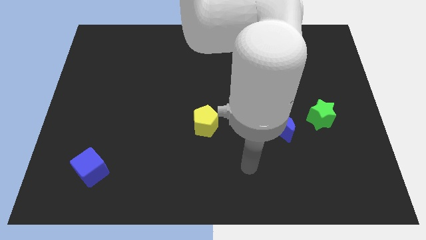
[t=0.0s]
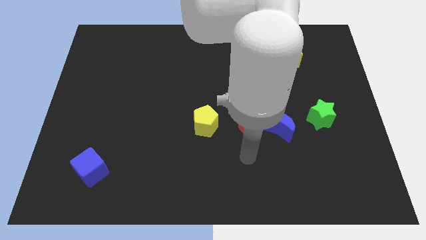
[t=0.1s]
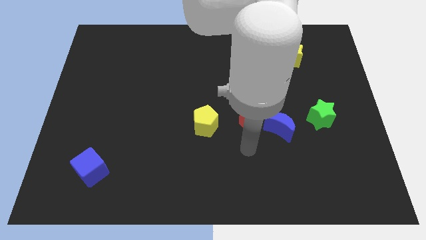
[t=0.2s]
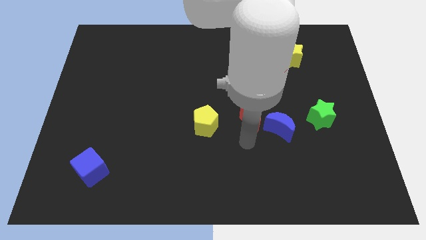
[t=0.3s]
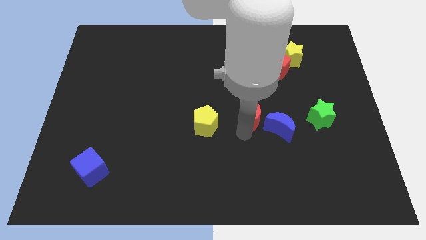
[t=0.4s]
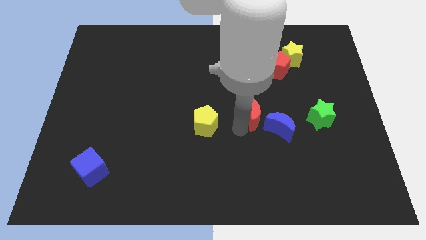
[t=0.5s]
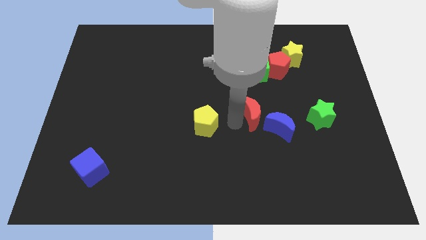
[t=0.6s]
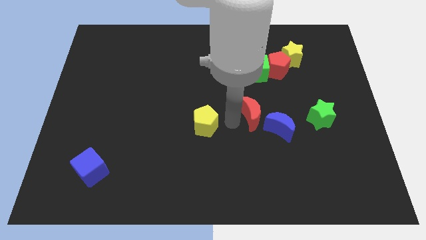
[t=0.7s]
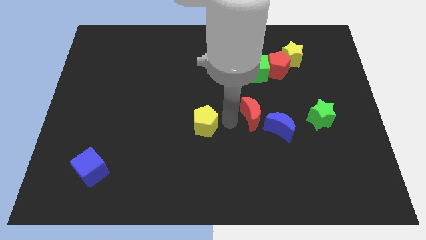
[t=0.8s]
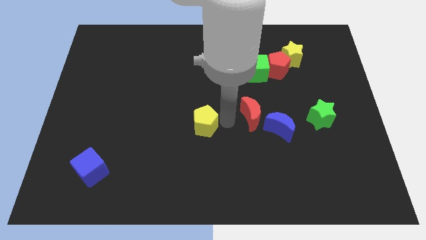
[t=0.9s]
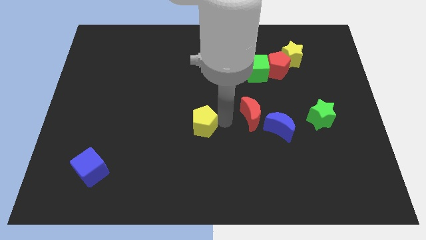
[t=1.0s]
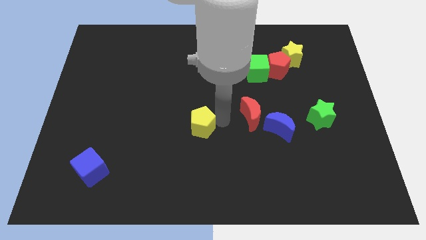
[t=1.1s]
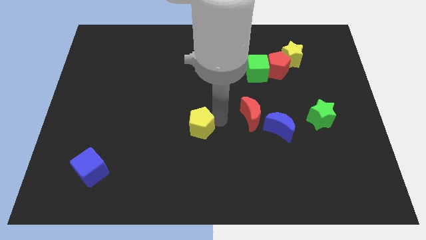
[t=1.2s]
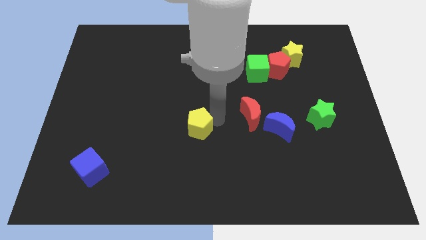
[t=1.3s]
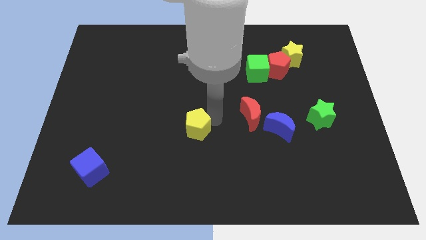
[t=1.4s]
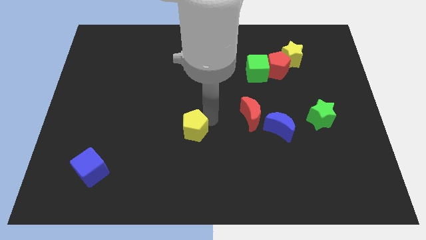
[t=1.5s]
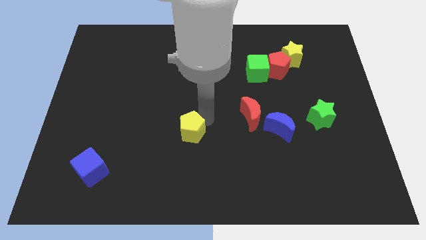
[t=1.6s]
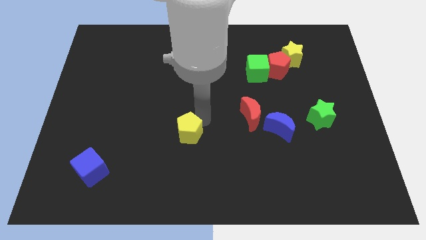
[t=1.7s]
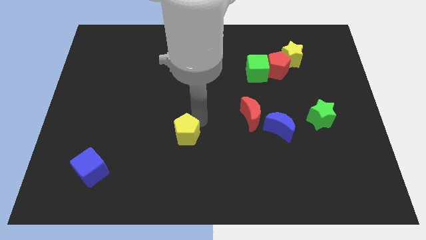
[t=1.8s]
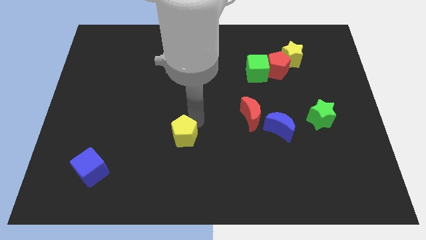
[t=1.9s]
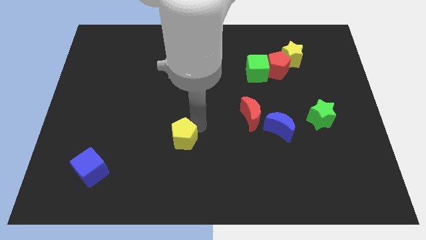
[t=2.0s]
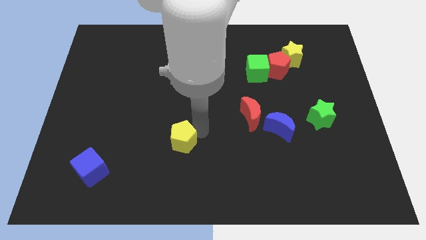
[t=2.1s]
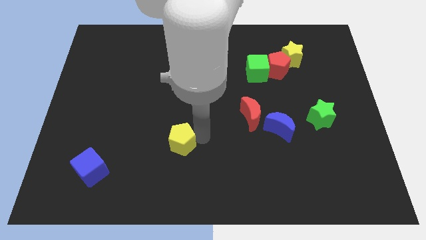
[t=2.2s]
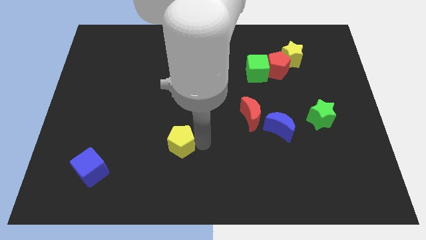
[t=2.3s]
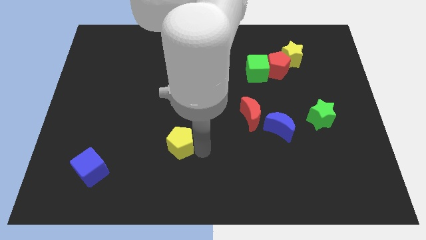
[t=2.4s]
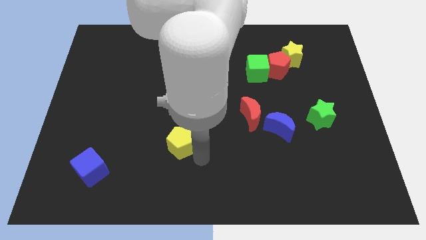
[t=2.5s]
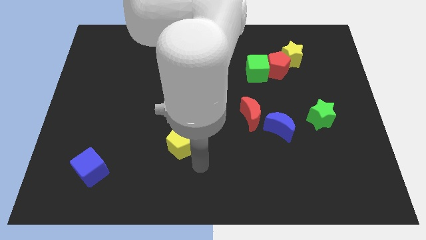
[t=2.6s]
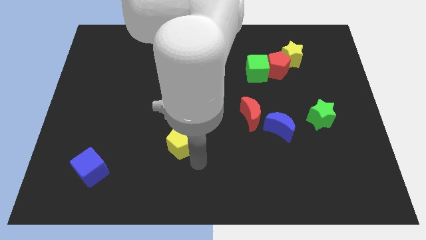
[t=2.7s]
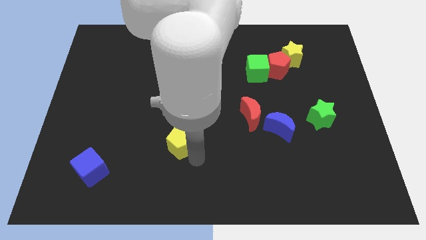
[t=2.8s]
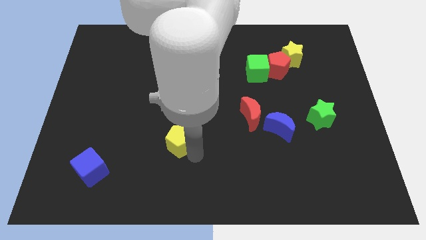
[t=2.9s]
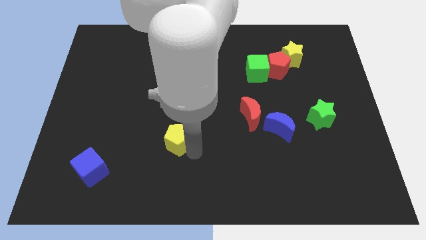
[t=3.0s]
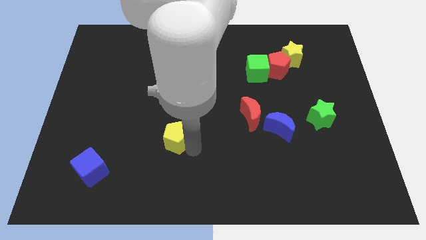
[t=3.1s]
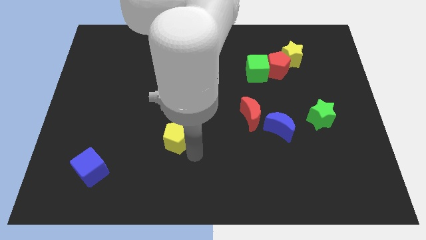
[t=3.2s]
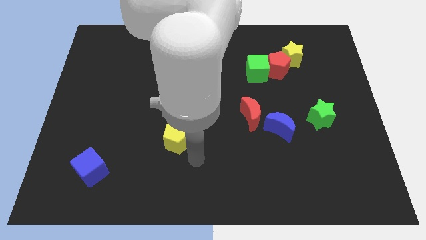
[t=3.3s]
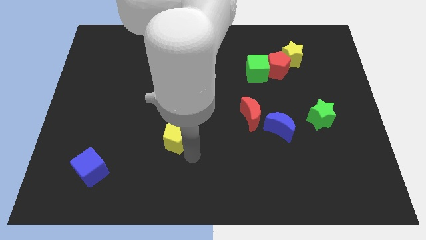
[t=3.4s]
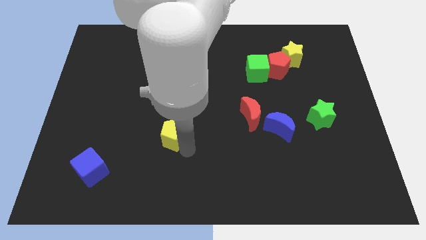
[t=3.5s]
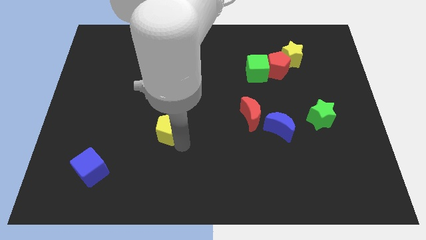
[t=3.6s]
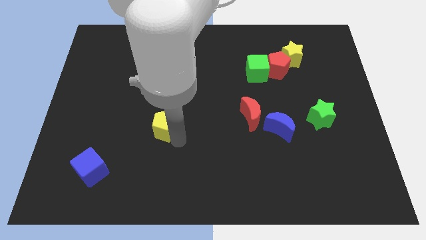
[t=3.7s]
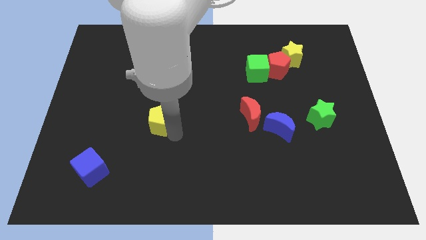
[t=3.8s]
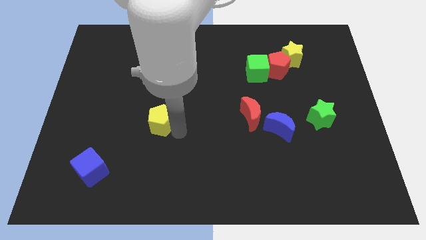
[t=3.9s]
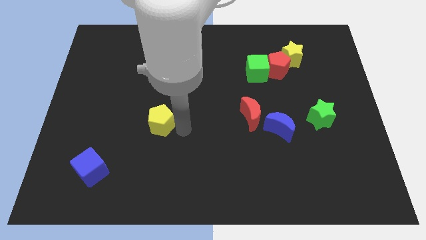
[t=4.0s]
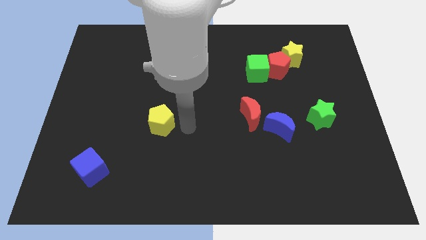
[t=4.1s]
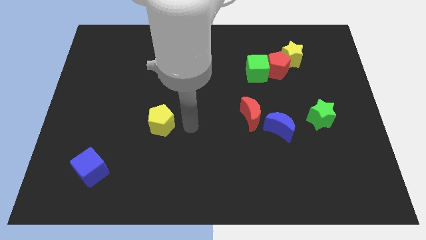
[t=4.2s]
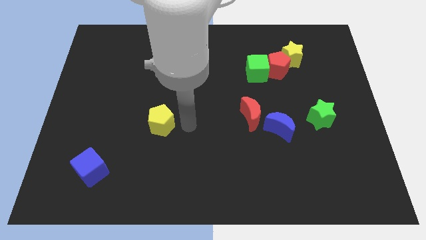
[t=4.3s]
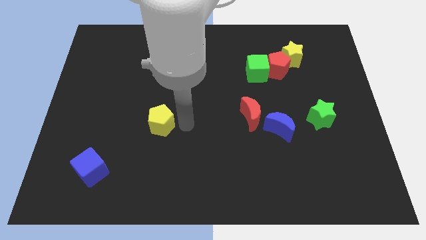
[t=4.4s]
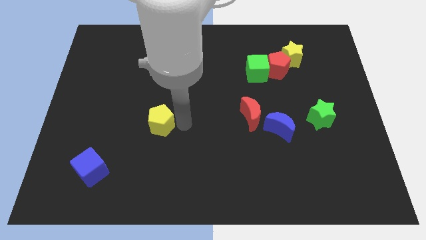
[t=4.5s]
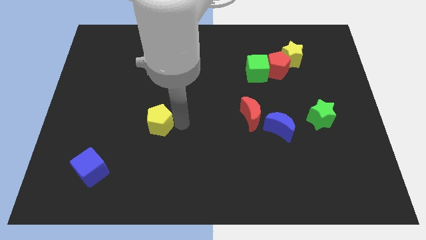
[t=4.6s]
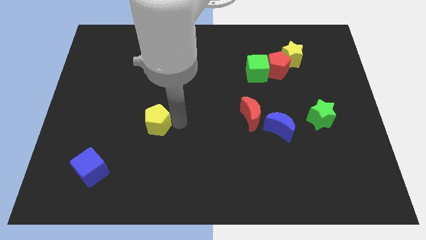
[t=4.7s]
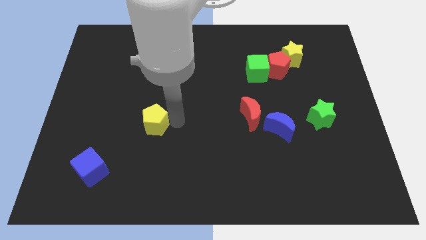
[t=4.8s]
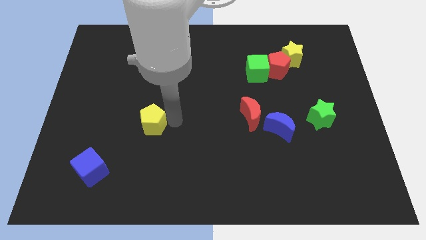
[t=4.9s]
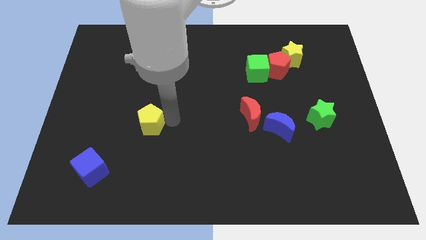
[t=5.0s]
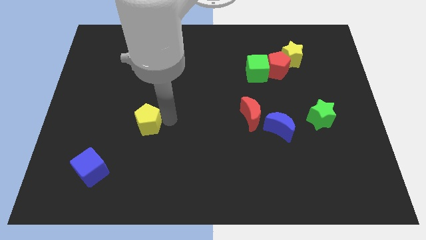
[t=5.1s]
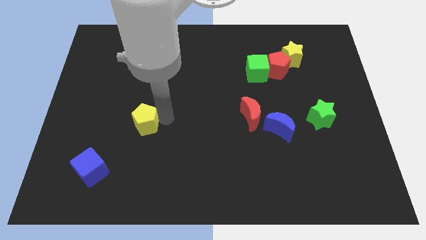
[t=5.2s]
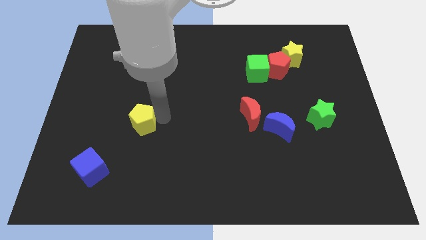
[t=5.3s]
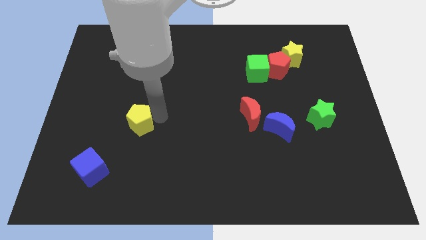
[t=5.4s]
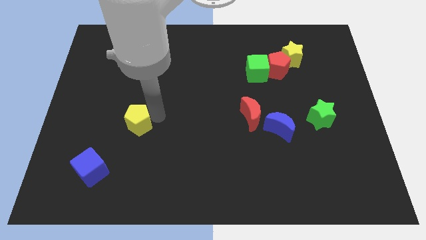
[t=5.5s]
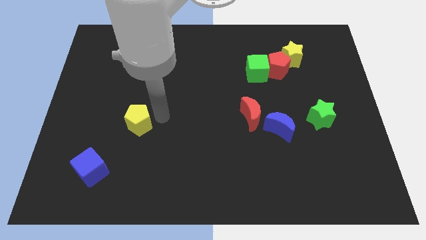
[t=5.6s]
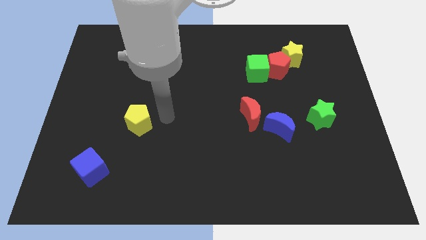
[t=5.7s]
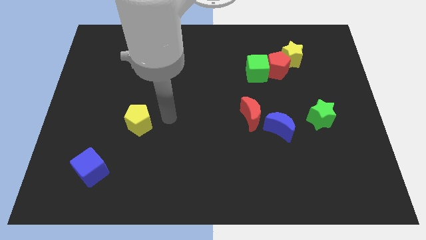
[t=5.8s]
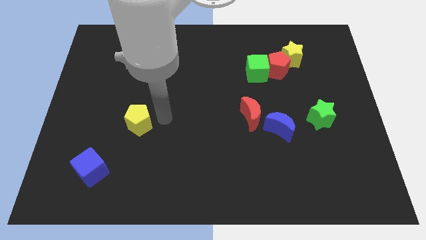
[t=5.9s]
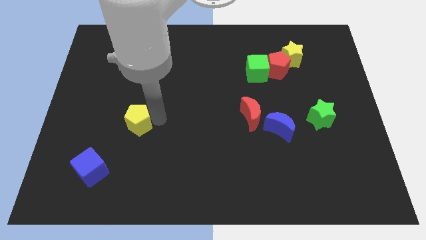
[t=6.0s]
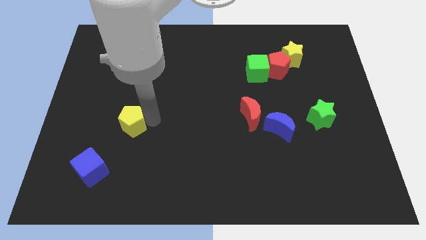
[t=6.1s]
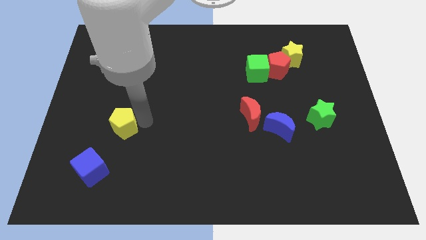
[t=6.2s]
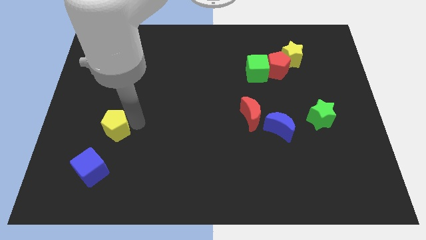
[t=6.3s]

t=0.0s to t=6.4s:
put the yellow pentagon to the top side of the blue cube
